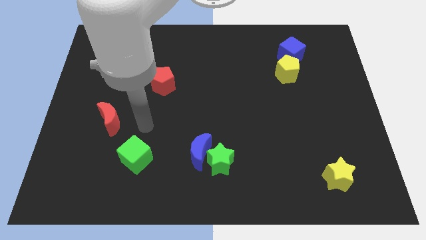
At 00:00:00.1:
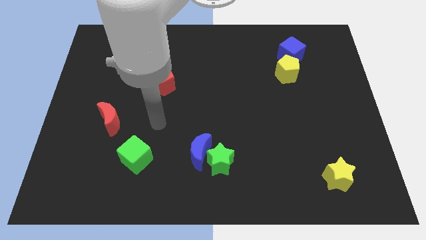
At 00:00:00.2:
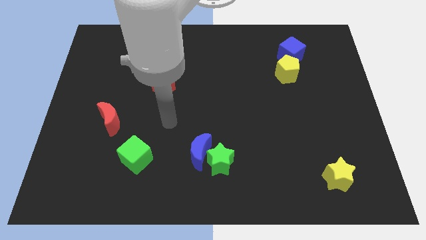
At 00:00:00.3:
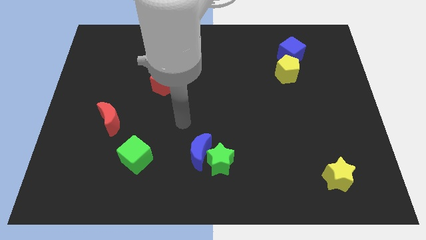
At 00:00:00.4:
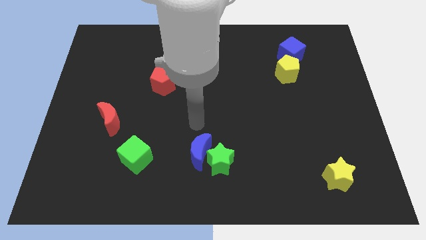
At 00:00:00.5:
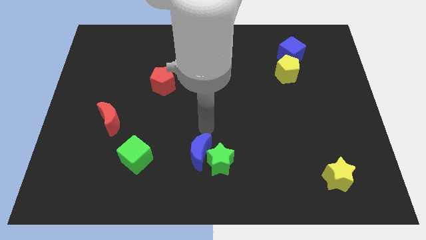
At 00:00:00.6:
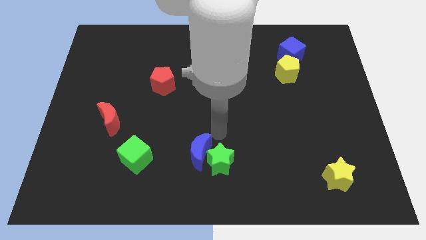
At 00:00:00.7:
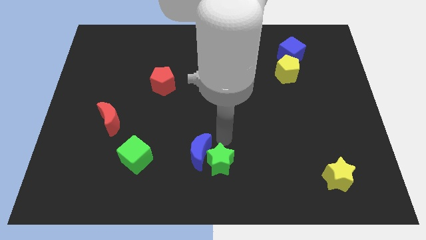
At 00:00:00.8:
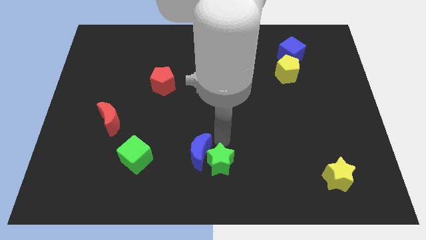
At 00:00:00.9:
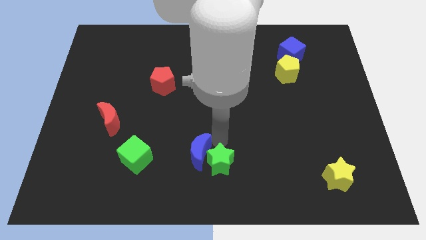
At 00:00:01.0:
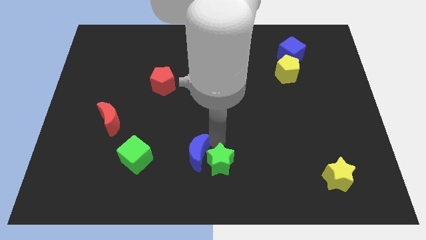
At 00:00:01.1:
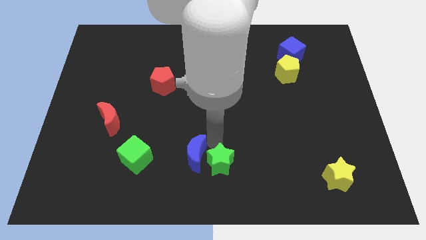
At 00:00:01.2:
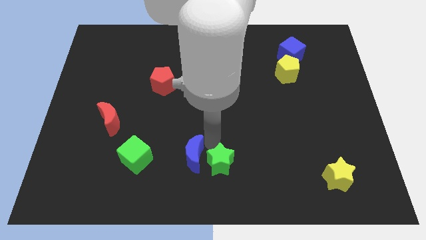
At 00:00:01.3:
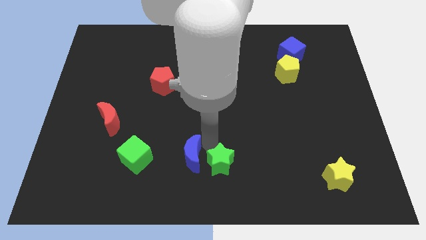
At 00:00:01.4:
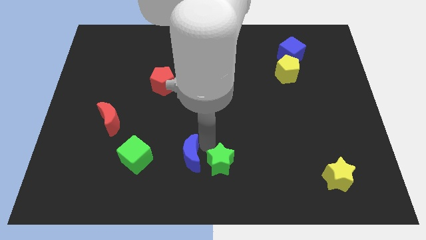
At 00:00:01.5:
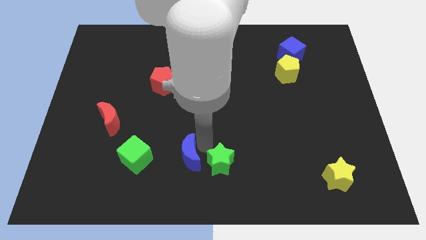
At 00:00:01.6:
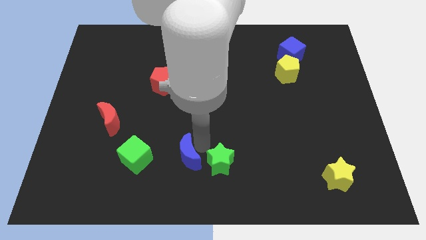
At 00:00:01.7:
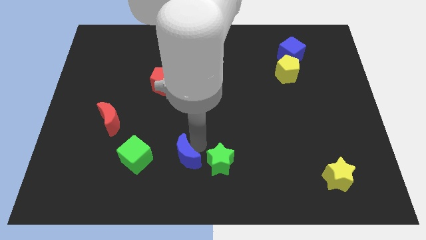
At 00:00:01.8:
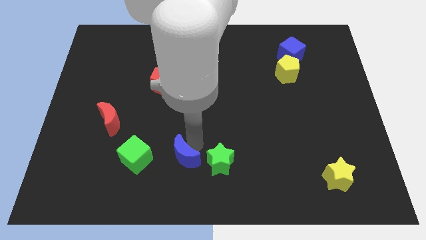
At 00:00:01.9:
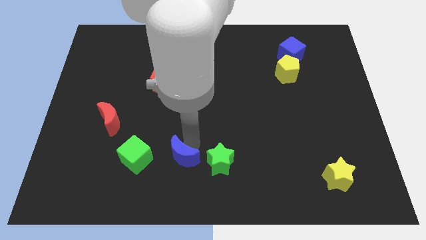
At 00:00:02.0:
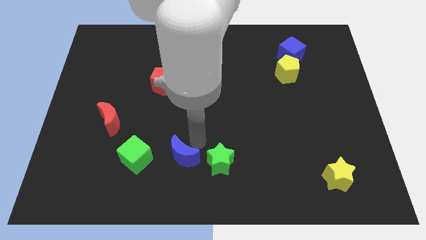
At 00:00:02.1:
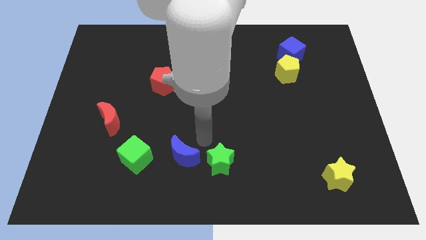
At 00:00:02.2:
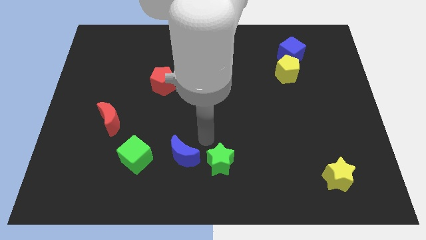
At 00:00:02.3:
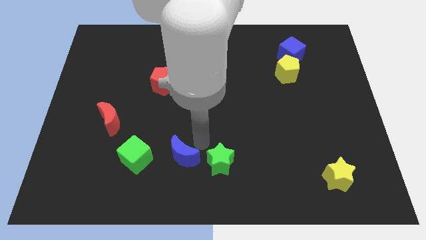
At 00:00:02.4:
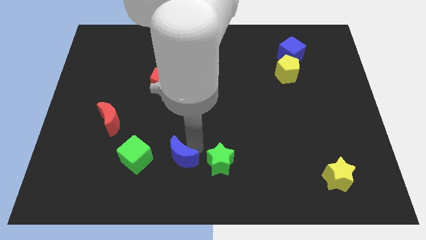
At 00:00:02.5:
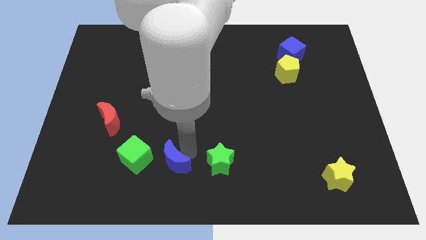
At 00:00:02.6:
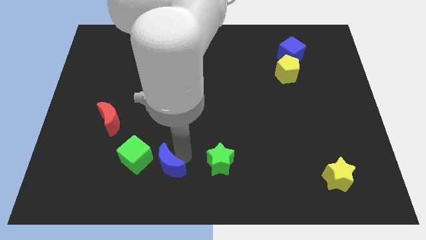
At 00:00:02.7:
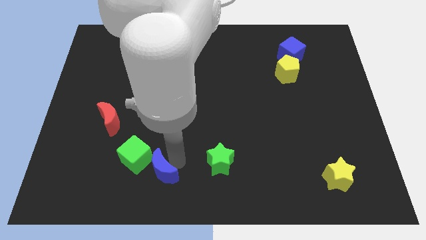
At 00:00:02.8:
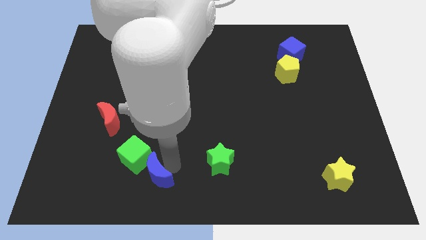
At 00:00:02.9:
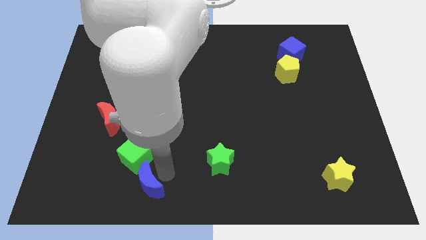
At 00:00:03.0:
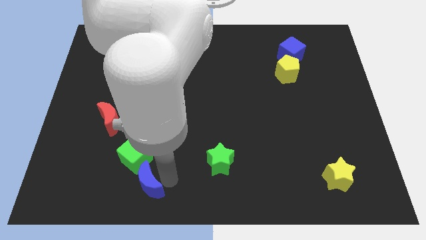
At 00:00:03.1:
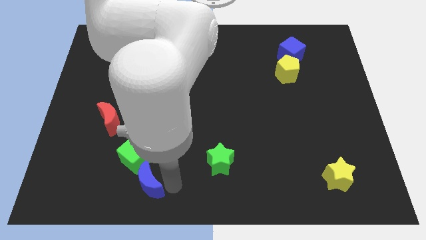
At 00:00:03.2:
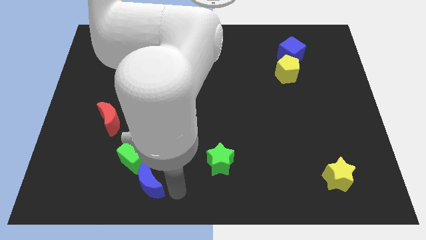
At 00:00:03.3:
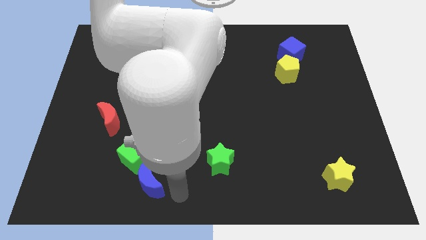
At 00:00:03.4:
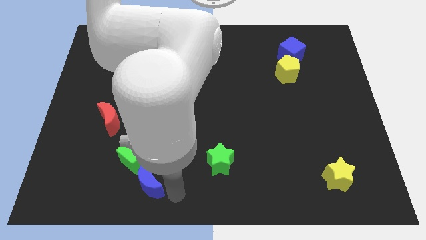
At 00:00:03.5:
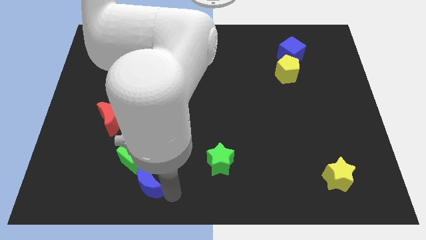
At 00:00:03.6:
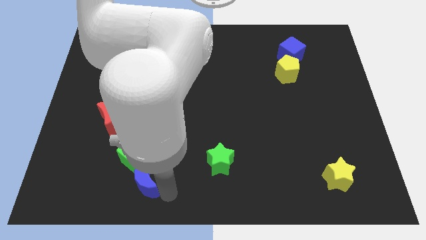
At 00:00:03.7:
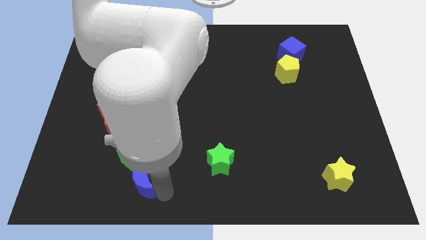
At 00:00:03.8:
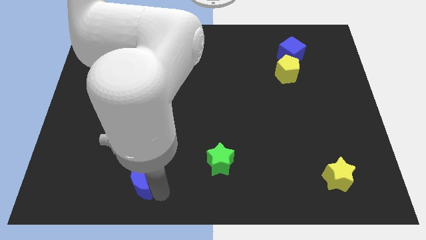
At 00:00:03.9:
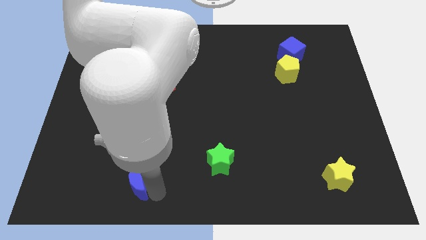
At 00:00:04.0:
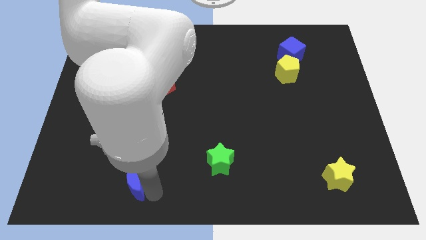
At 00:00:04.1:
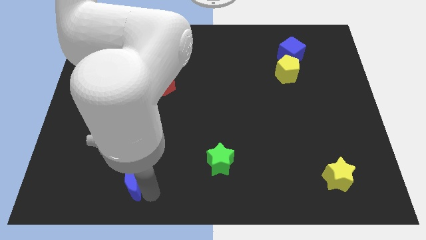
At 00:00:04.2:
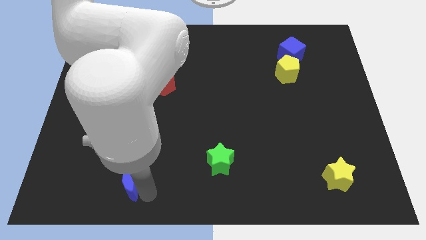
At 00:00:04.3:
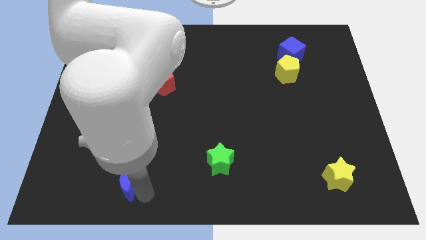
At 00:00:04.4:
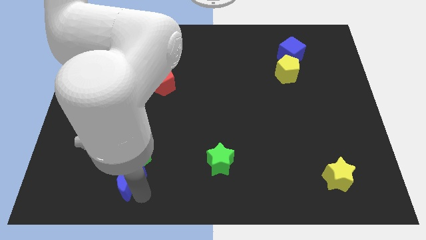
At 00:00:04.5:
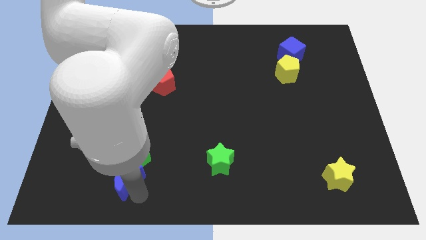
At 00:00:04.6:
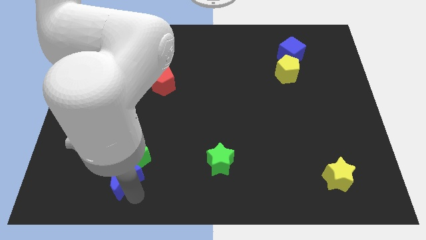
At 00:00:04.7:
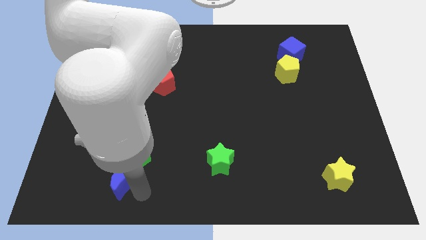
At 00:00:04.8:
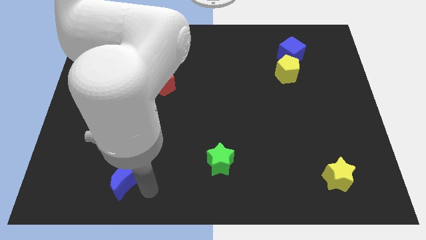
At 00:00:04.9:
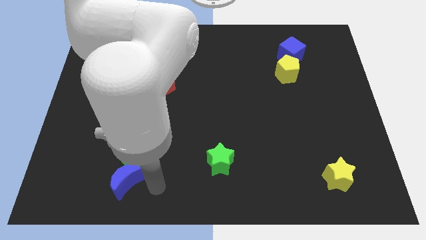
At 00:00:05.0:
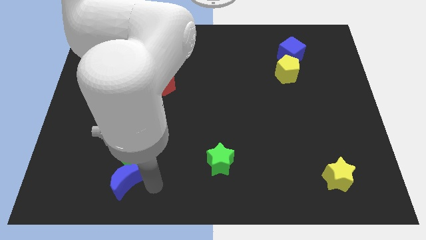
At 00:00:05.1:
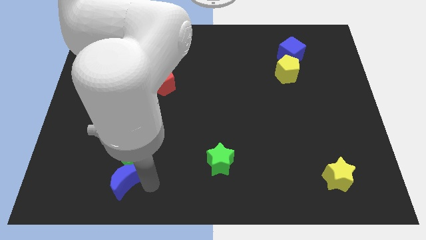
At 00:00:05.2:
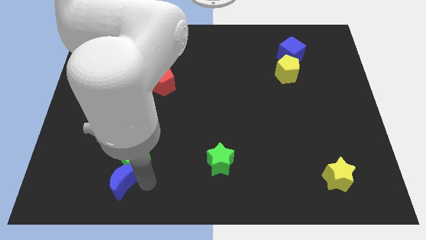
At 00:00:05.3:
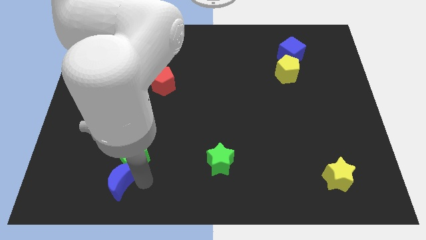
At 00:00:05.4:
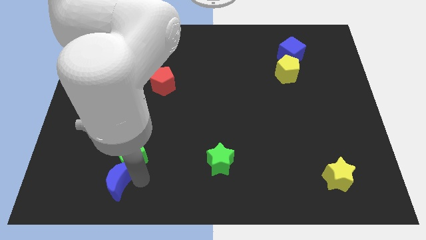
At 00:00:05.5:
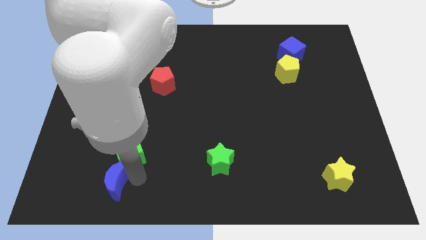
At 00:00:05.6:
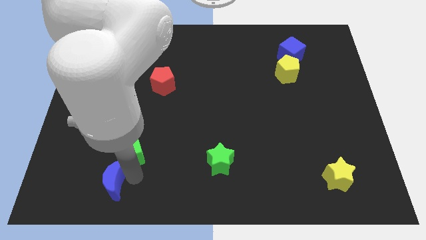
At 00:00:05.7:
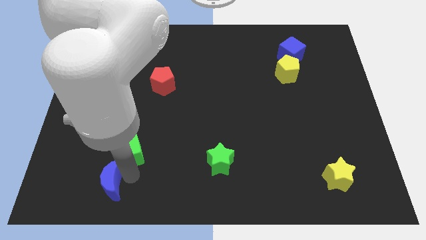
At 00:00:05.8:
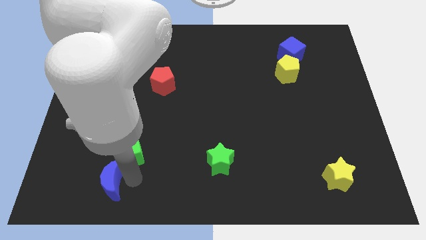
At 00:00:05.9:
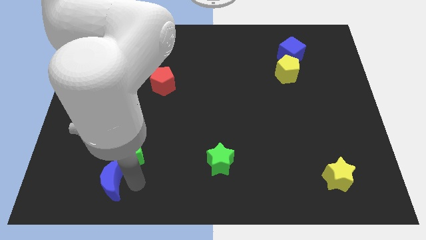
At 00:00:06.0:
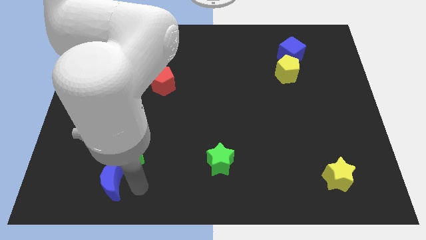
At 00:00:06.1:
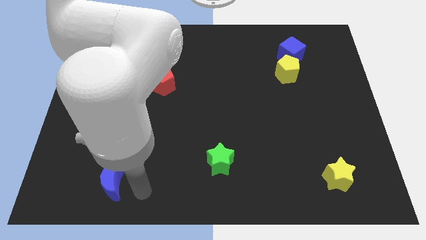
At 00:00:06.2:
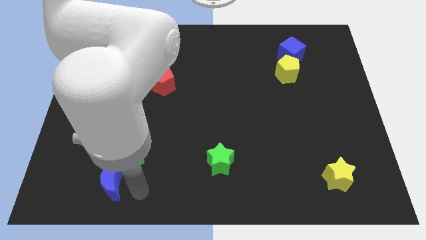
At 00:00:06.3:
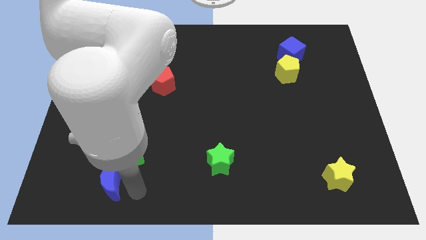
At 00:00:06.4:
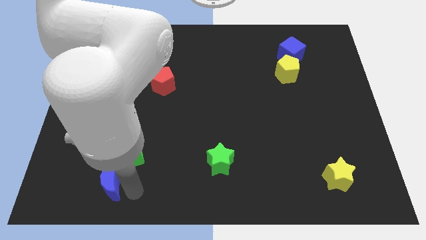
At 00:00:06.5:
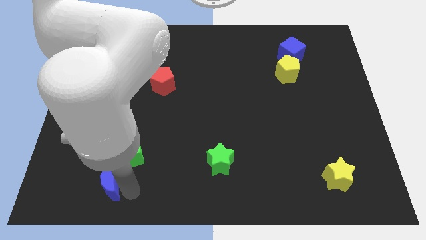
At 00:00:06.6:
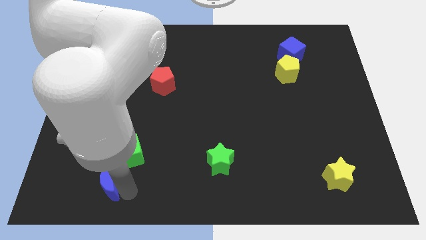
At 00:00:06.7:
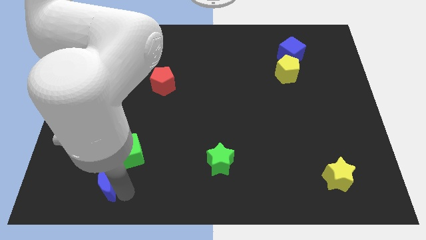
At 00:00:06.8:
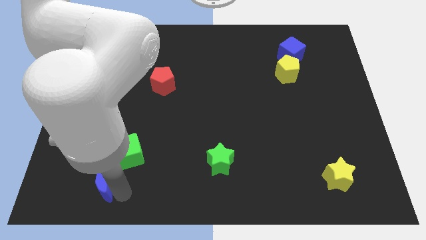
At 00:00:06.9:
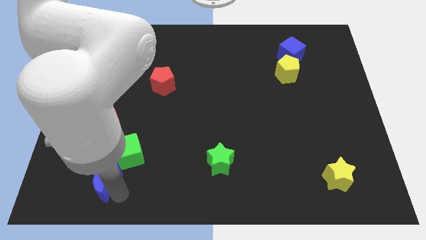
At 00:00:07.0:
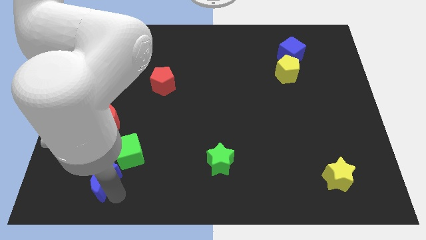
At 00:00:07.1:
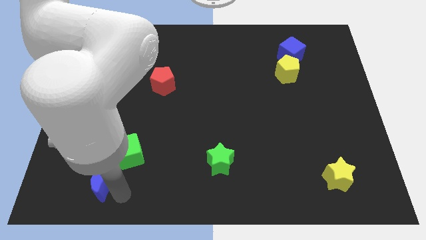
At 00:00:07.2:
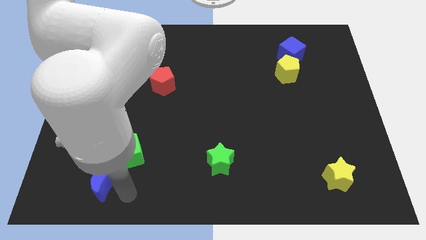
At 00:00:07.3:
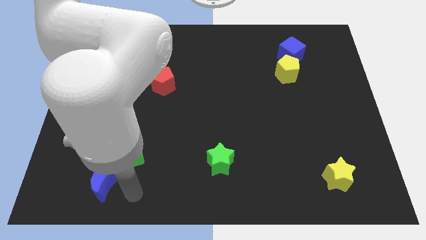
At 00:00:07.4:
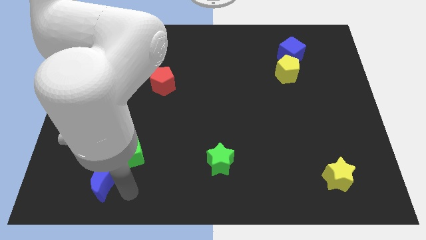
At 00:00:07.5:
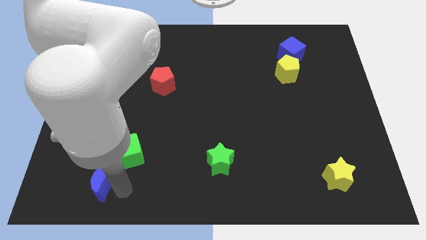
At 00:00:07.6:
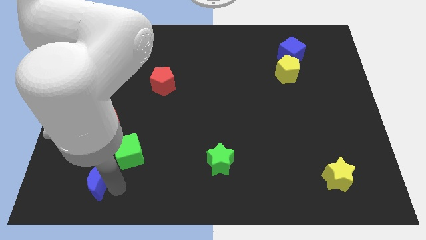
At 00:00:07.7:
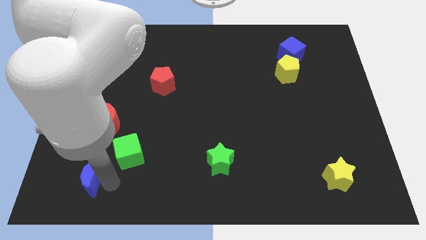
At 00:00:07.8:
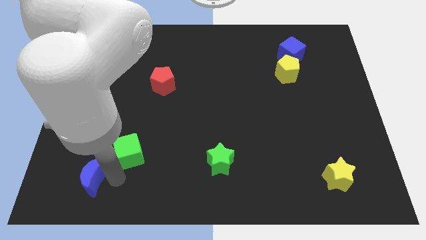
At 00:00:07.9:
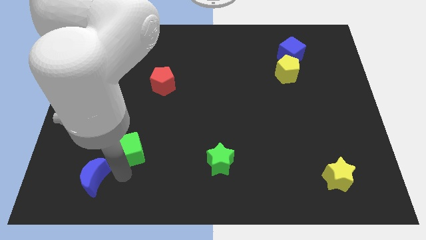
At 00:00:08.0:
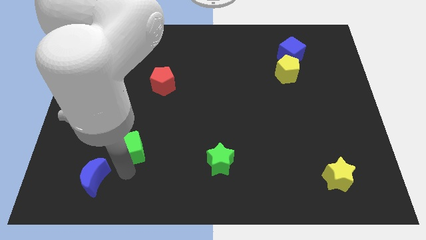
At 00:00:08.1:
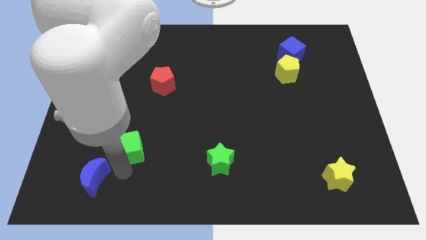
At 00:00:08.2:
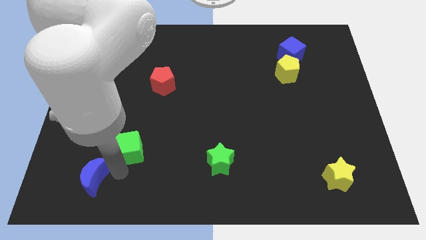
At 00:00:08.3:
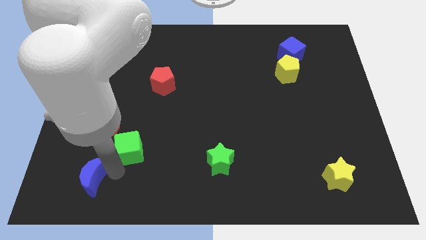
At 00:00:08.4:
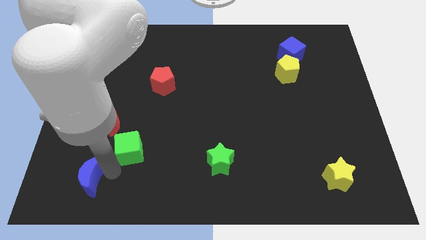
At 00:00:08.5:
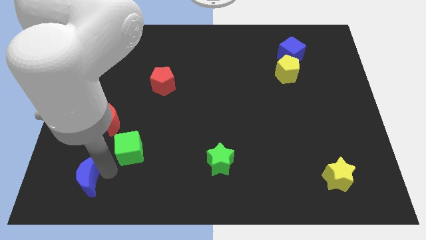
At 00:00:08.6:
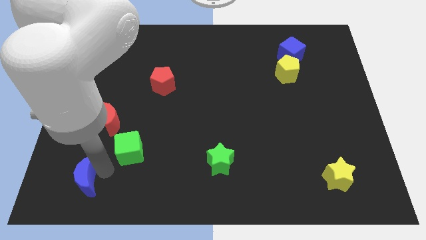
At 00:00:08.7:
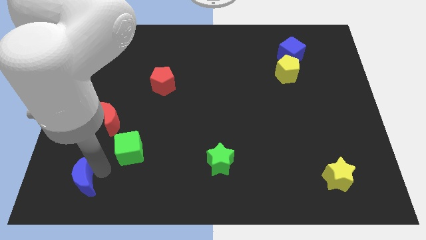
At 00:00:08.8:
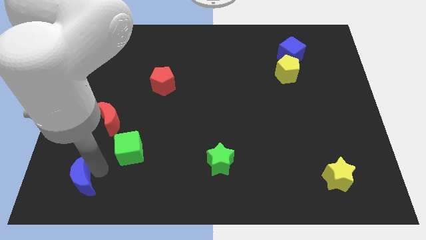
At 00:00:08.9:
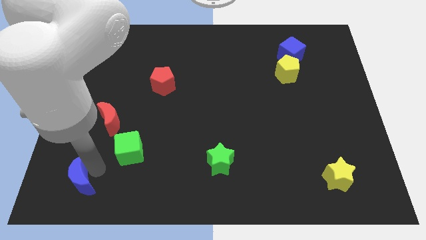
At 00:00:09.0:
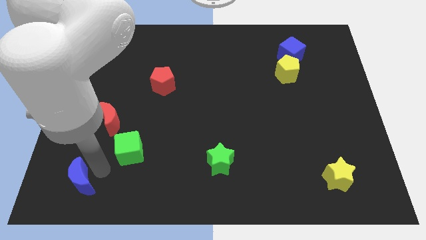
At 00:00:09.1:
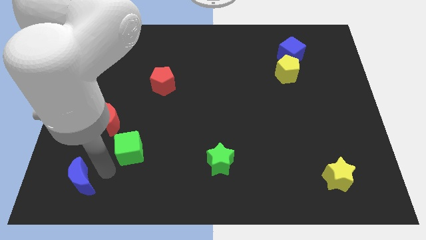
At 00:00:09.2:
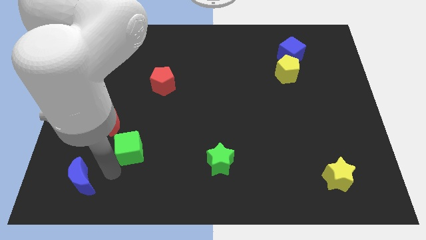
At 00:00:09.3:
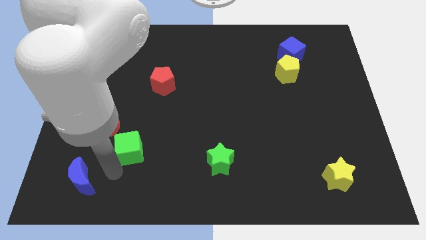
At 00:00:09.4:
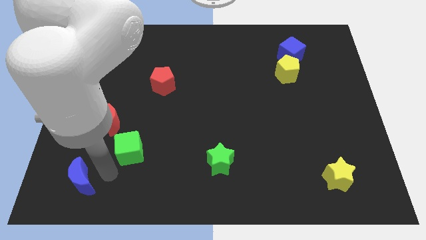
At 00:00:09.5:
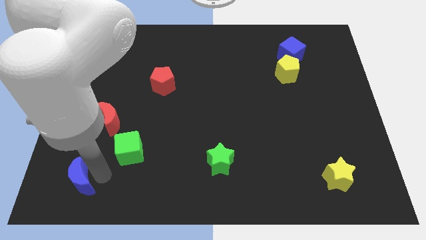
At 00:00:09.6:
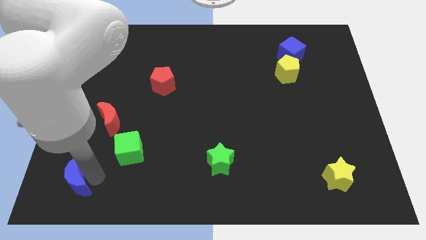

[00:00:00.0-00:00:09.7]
move the blue moon to the lower left corner
